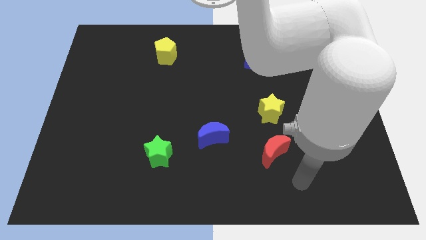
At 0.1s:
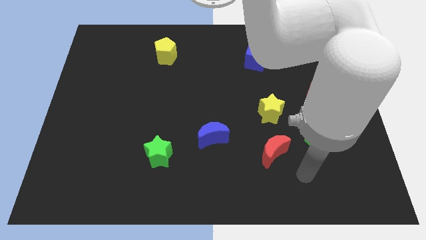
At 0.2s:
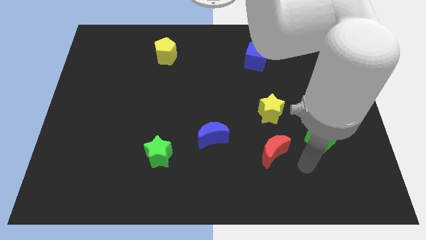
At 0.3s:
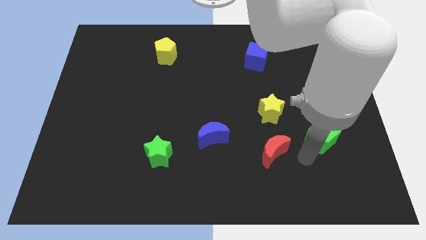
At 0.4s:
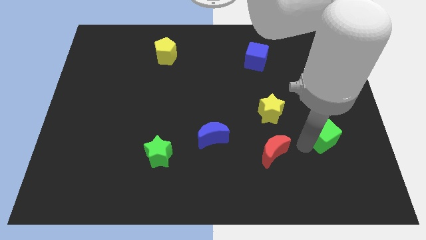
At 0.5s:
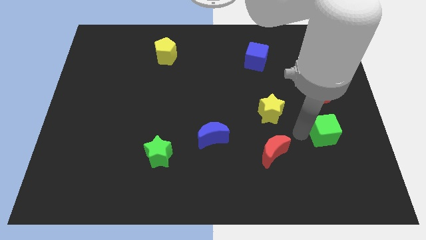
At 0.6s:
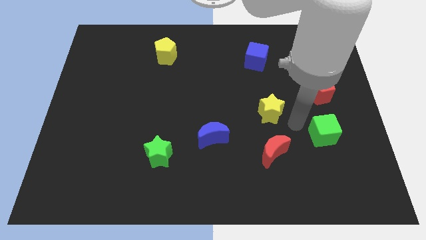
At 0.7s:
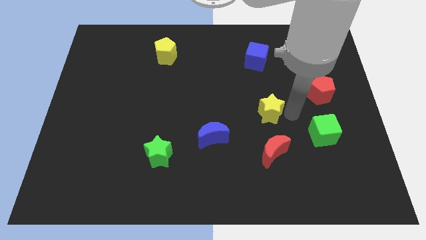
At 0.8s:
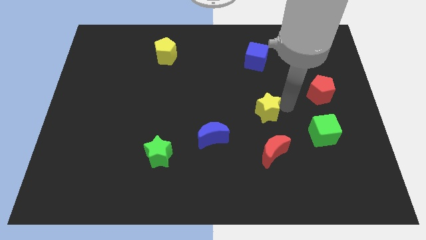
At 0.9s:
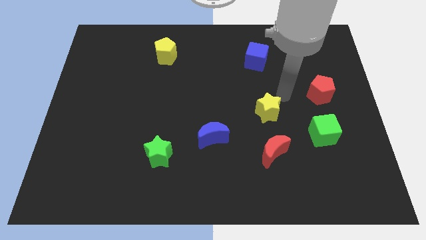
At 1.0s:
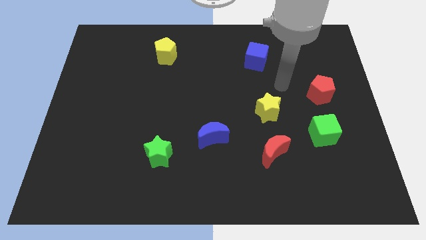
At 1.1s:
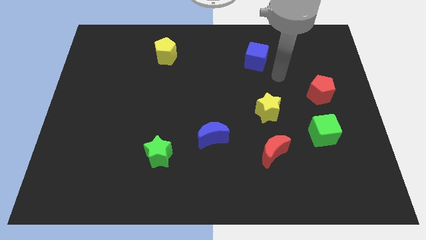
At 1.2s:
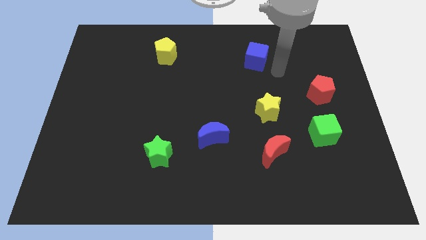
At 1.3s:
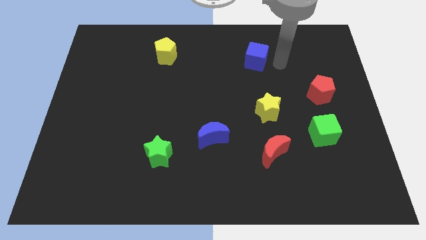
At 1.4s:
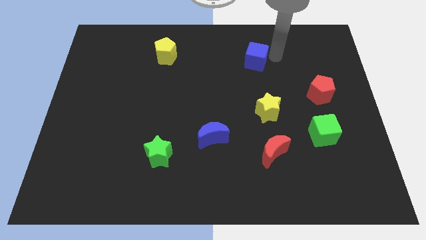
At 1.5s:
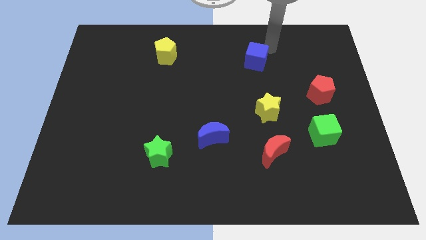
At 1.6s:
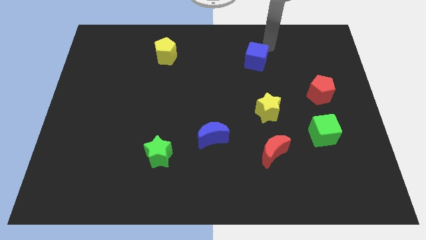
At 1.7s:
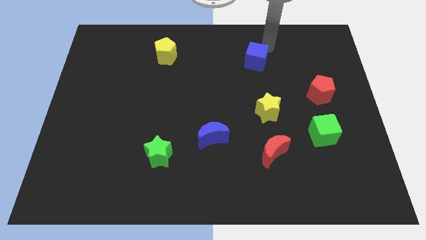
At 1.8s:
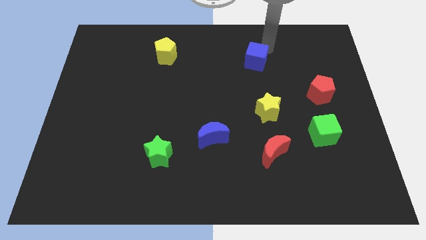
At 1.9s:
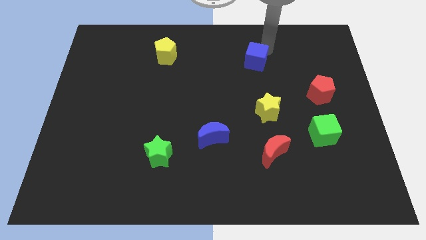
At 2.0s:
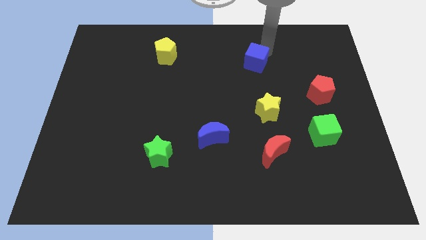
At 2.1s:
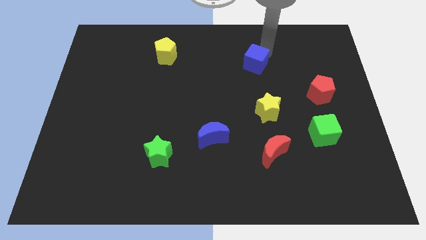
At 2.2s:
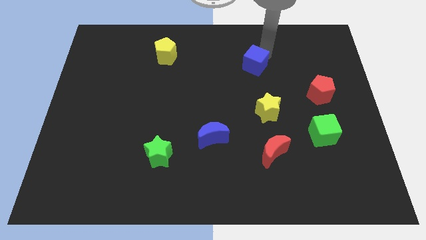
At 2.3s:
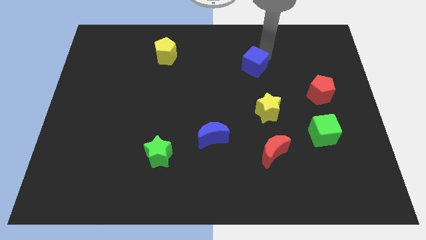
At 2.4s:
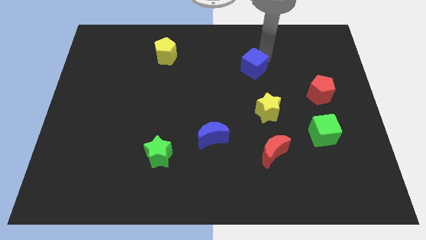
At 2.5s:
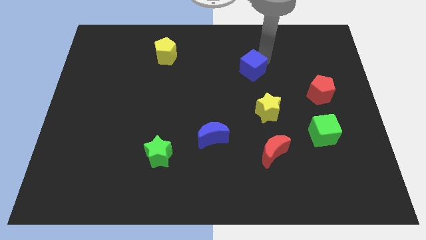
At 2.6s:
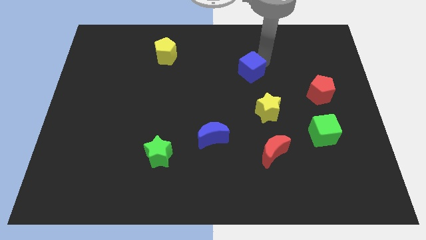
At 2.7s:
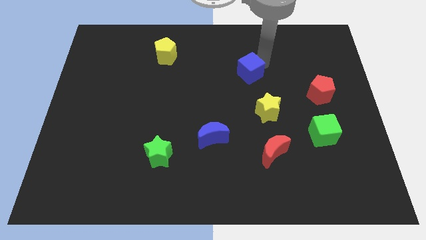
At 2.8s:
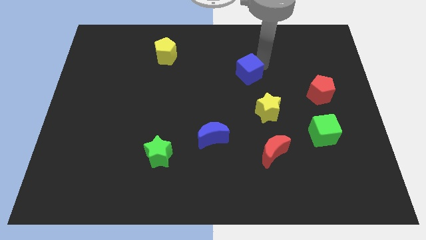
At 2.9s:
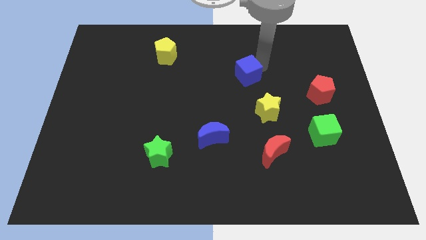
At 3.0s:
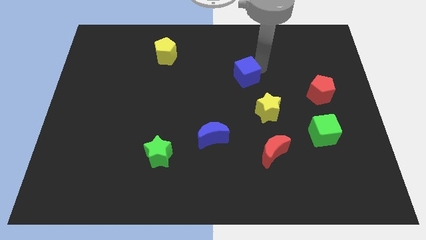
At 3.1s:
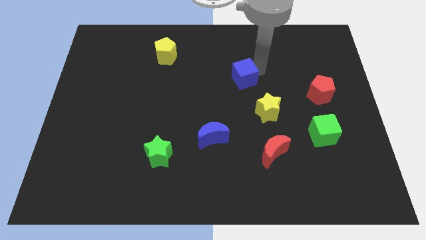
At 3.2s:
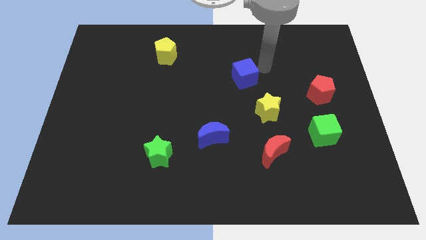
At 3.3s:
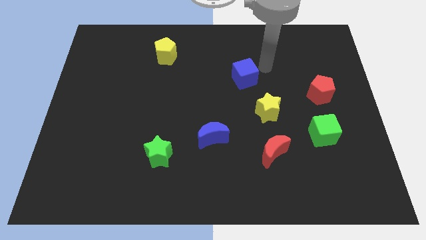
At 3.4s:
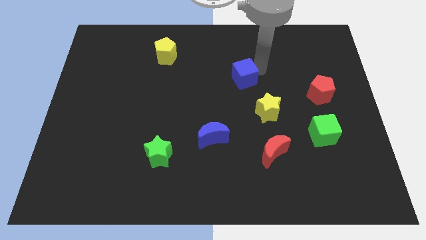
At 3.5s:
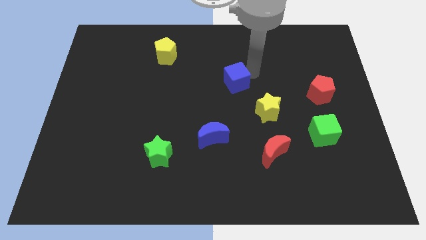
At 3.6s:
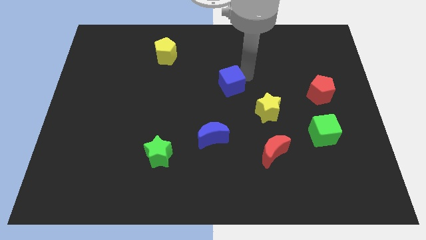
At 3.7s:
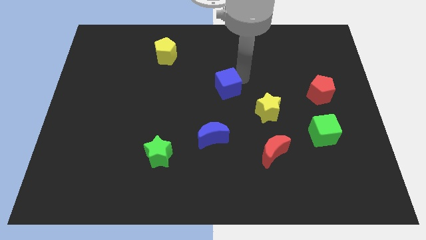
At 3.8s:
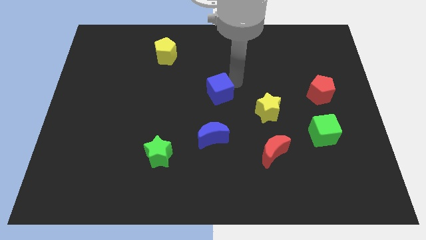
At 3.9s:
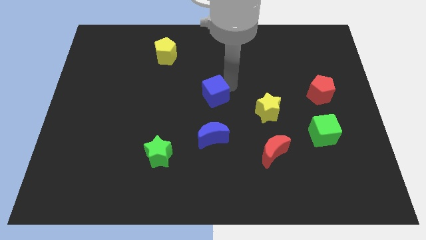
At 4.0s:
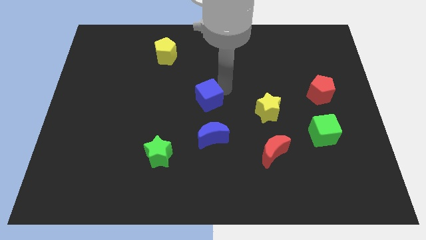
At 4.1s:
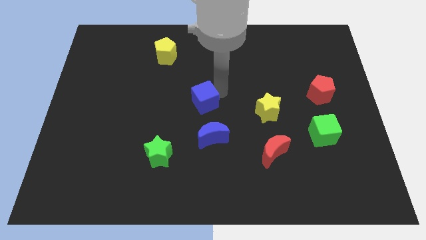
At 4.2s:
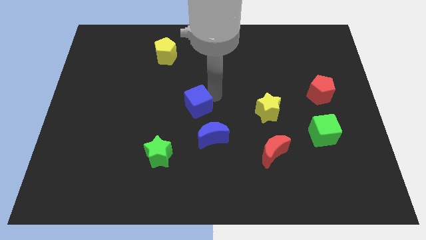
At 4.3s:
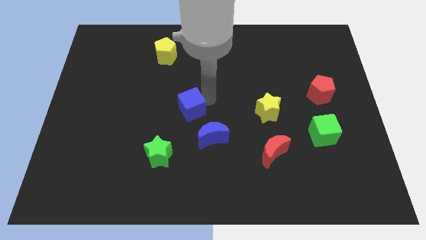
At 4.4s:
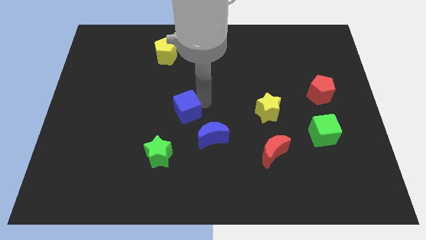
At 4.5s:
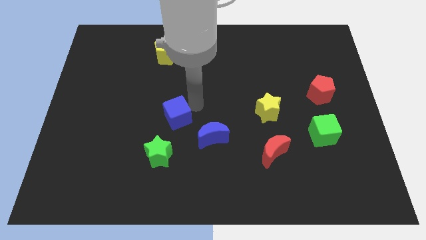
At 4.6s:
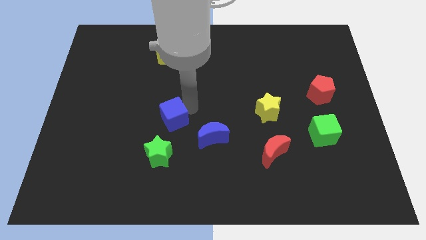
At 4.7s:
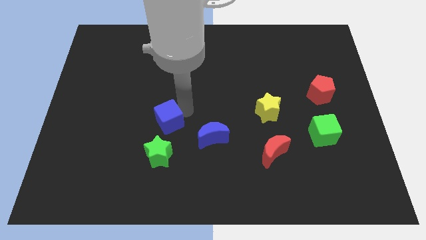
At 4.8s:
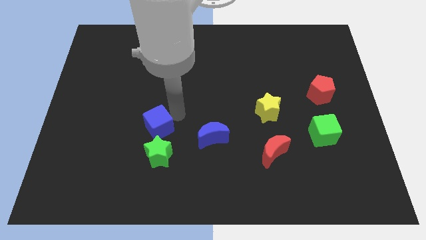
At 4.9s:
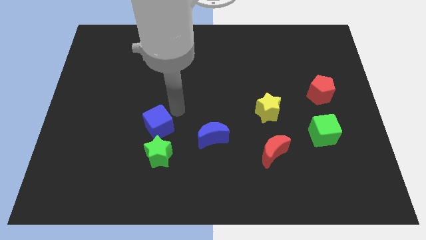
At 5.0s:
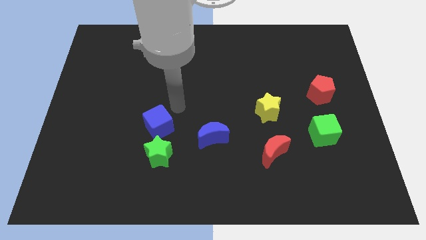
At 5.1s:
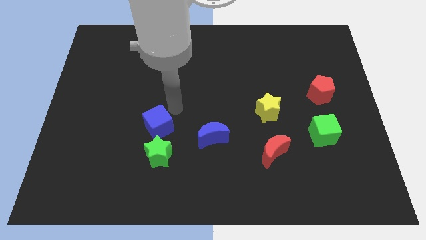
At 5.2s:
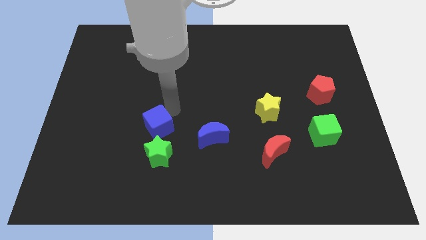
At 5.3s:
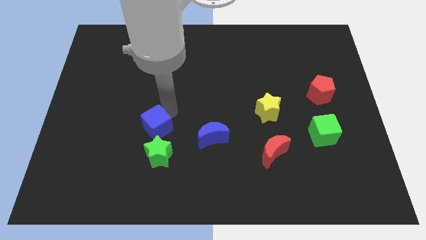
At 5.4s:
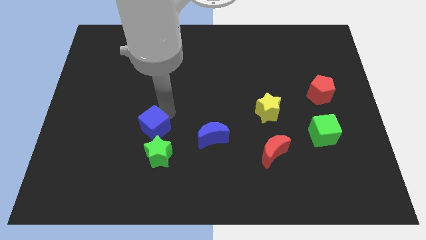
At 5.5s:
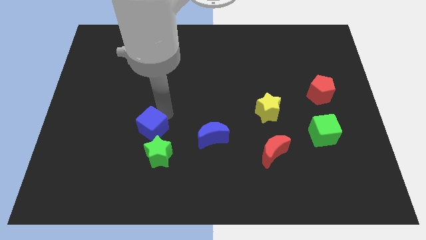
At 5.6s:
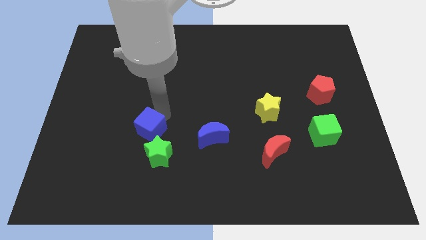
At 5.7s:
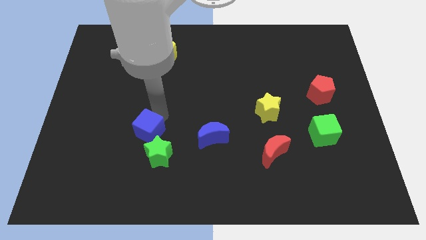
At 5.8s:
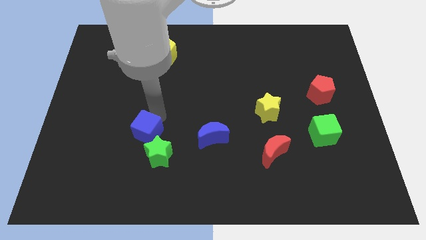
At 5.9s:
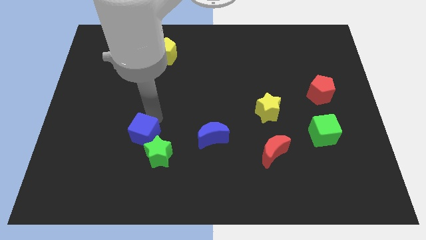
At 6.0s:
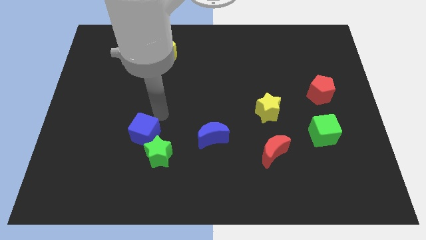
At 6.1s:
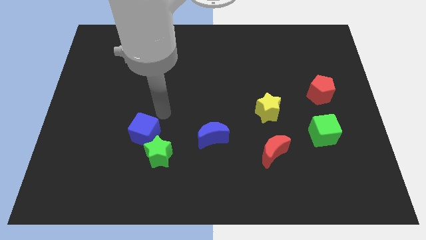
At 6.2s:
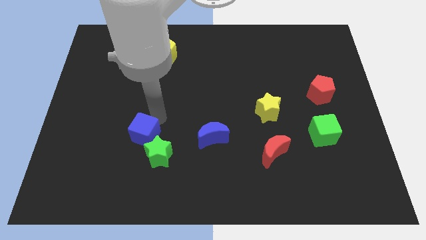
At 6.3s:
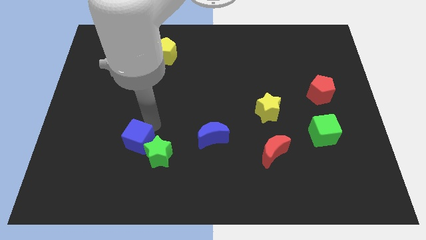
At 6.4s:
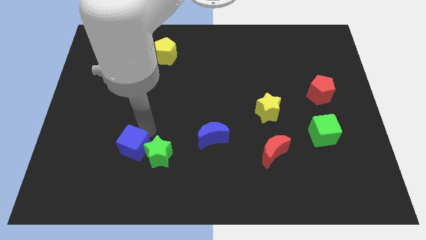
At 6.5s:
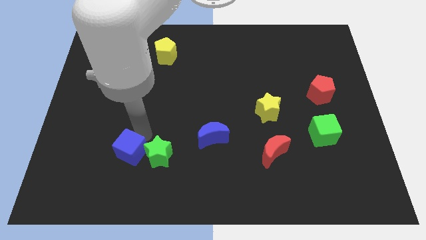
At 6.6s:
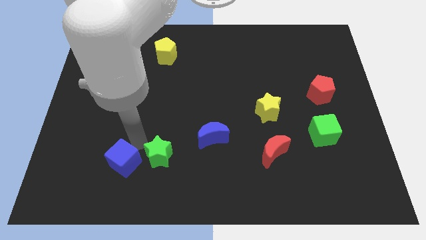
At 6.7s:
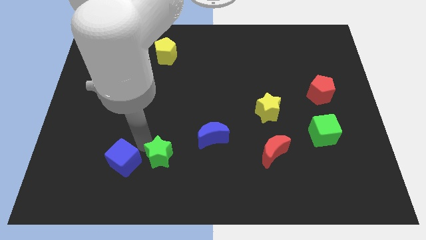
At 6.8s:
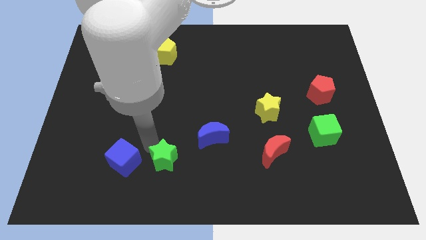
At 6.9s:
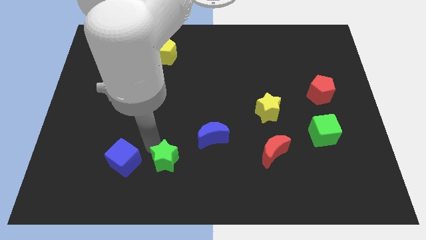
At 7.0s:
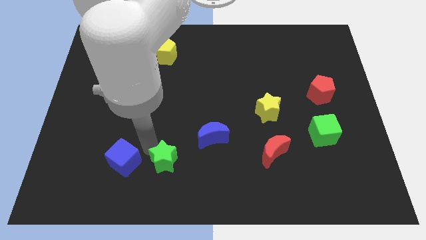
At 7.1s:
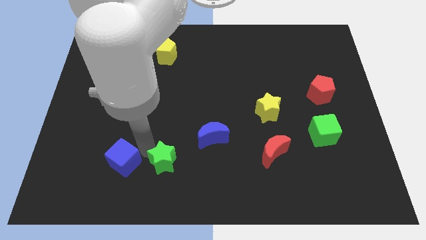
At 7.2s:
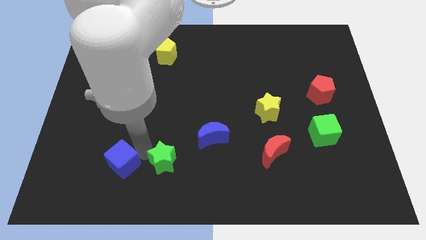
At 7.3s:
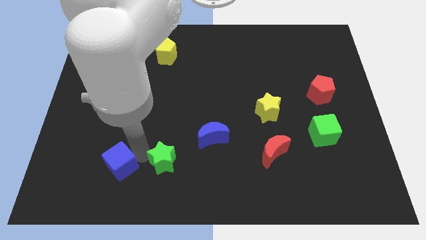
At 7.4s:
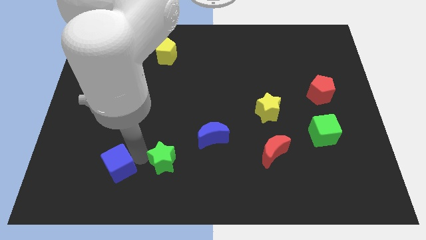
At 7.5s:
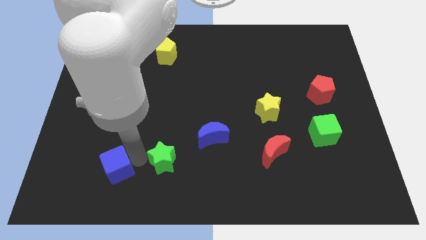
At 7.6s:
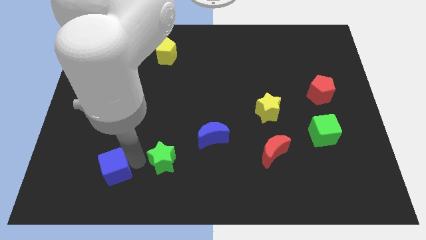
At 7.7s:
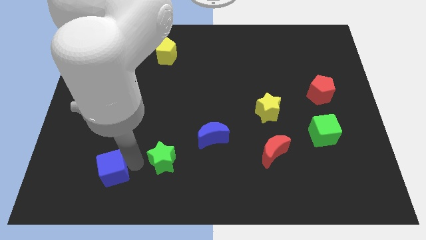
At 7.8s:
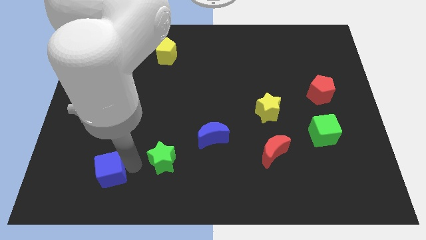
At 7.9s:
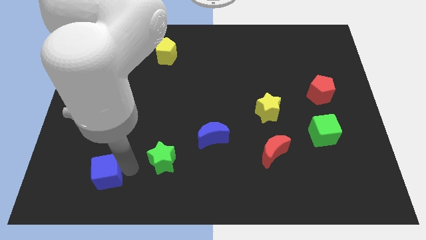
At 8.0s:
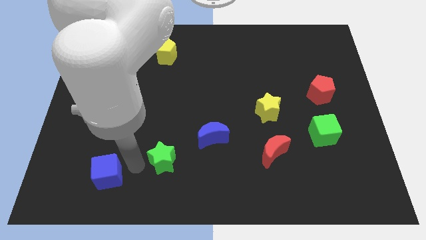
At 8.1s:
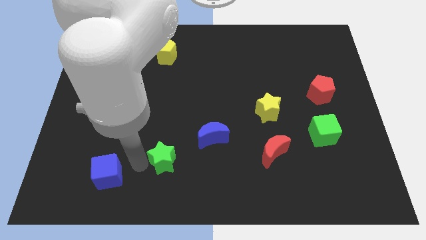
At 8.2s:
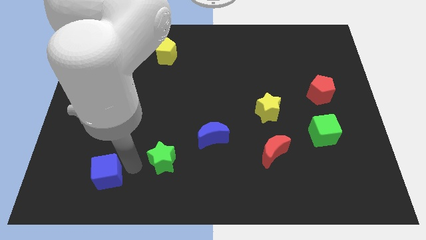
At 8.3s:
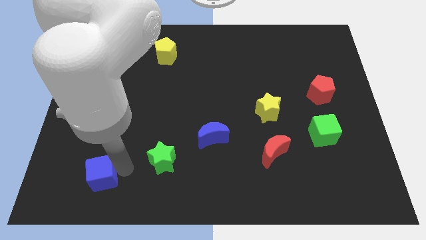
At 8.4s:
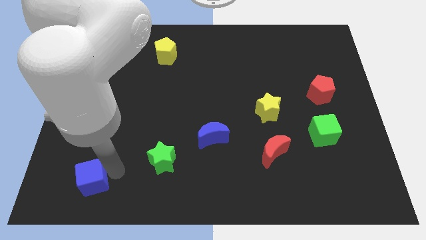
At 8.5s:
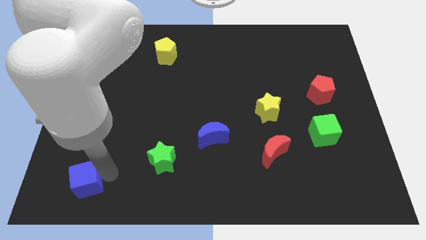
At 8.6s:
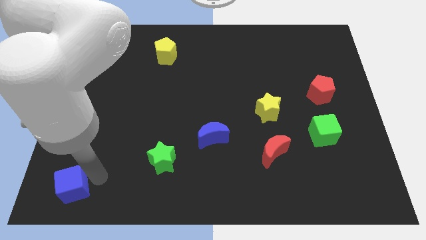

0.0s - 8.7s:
slide the blue cube to the bottom left
